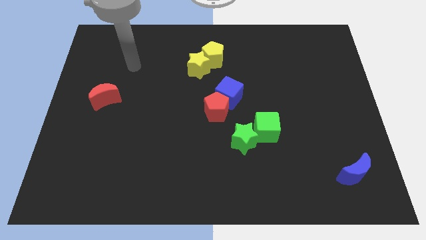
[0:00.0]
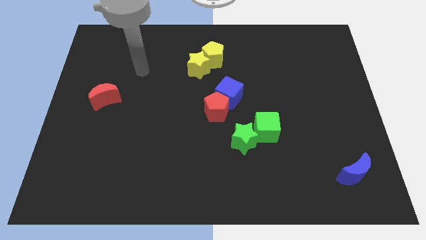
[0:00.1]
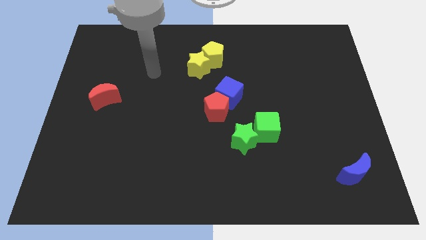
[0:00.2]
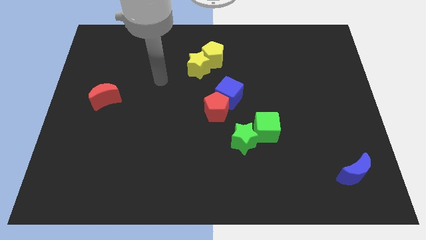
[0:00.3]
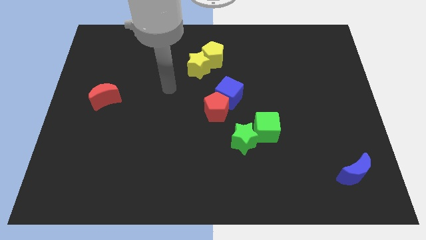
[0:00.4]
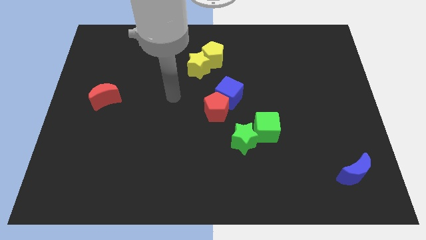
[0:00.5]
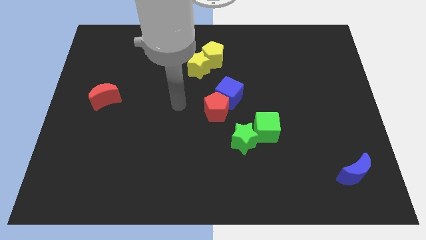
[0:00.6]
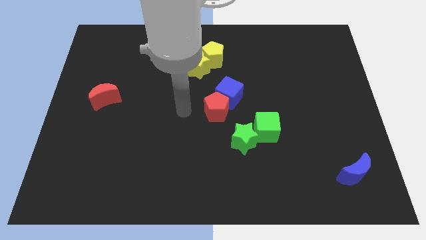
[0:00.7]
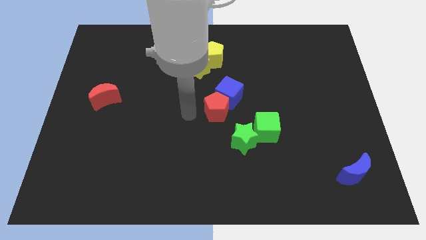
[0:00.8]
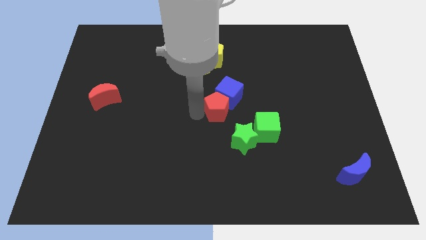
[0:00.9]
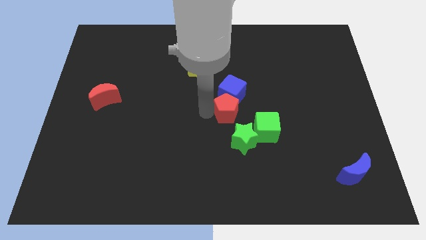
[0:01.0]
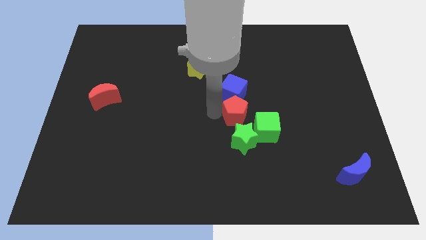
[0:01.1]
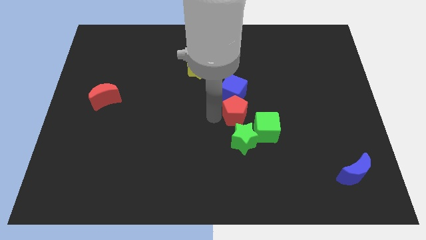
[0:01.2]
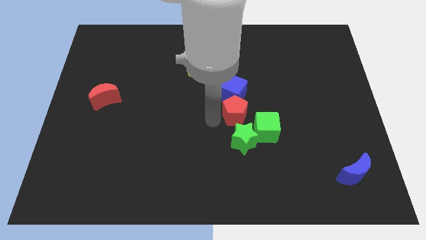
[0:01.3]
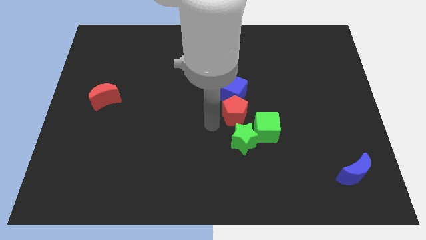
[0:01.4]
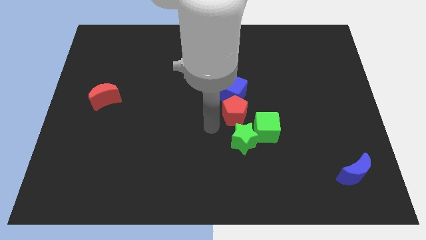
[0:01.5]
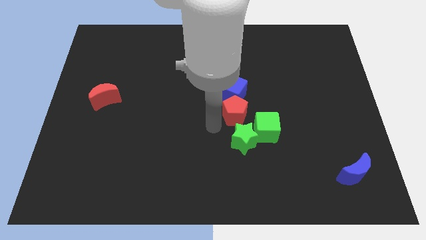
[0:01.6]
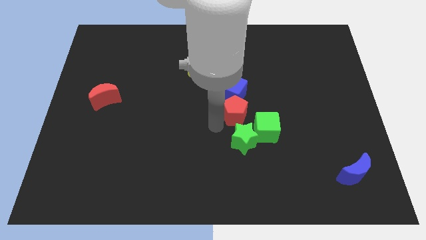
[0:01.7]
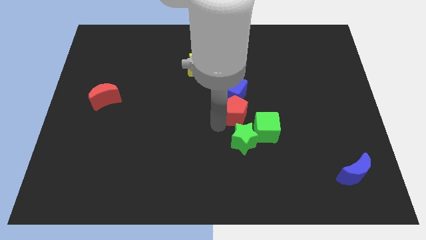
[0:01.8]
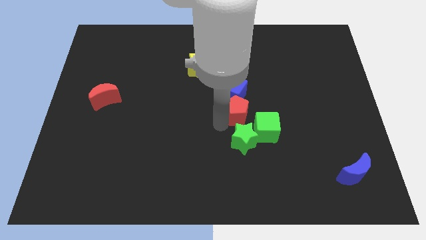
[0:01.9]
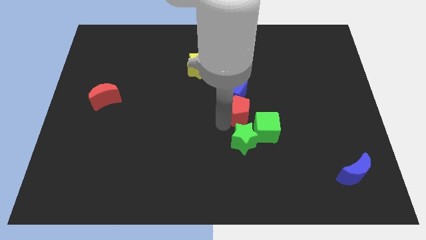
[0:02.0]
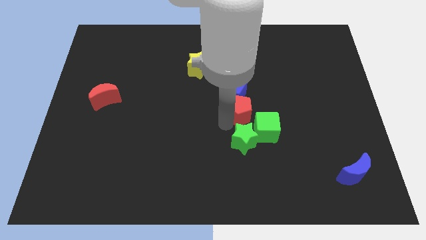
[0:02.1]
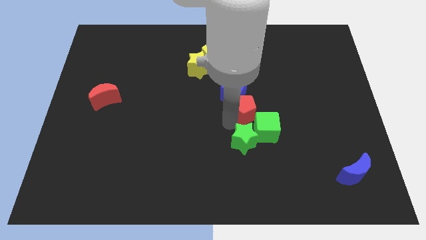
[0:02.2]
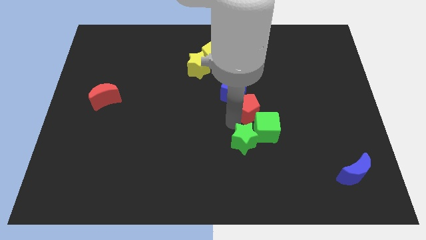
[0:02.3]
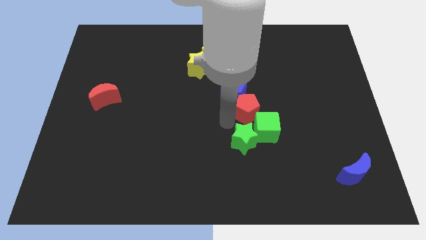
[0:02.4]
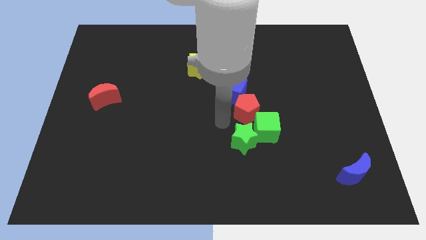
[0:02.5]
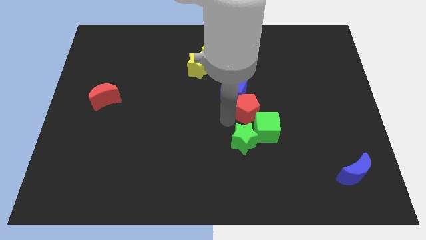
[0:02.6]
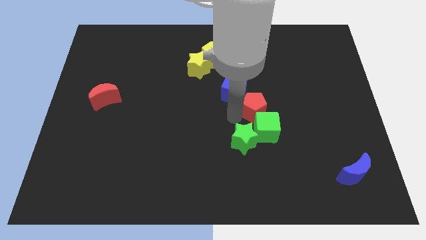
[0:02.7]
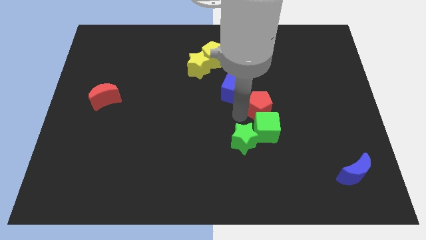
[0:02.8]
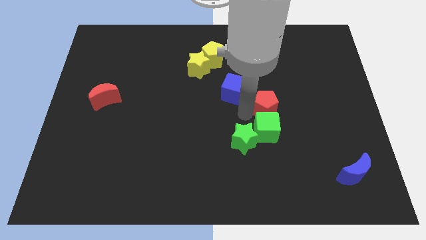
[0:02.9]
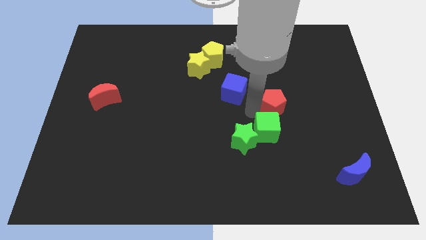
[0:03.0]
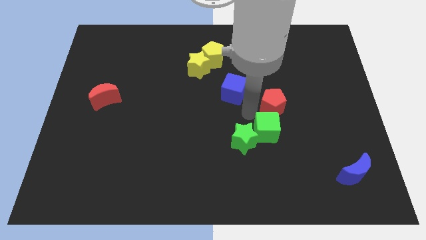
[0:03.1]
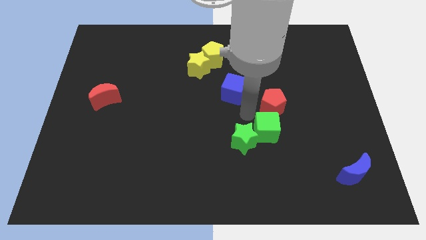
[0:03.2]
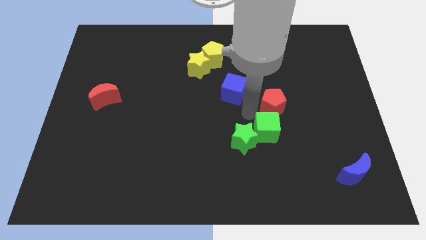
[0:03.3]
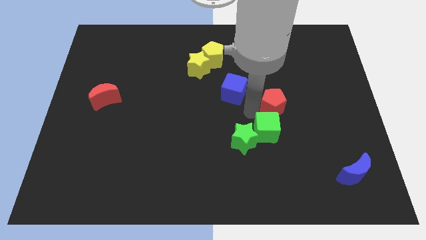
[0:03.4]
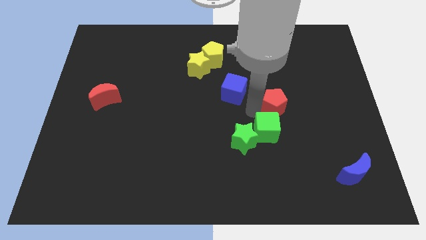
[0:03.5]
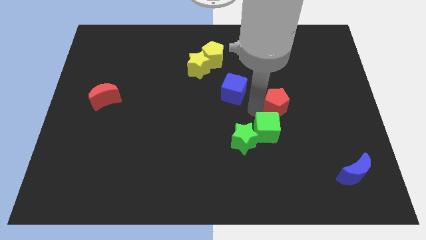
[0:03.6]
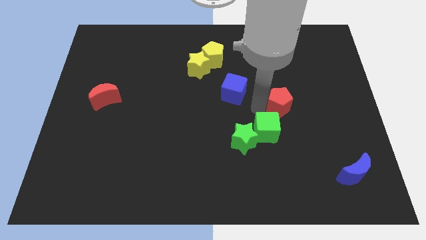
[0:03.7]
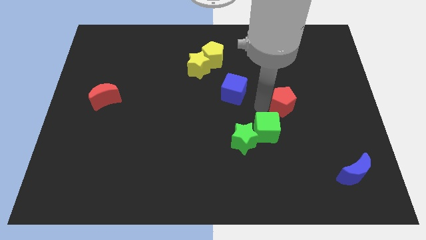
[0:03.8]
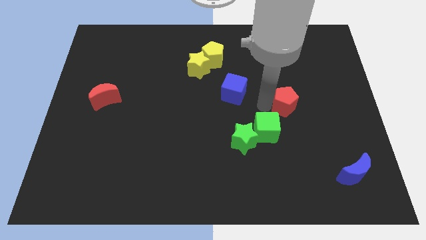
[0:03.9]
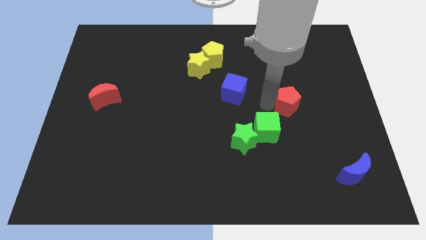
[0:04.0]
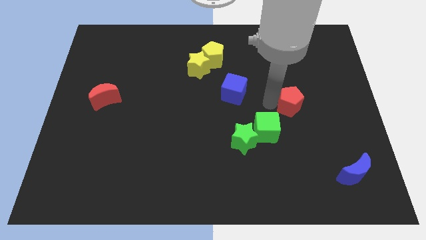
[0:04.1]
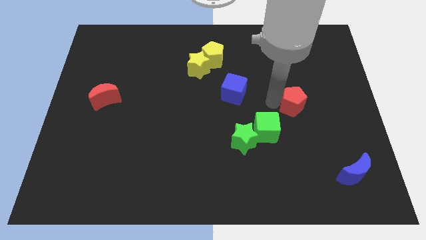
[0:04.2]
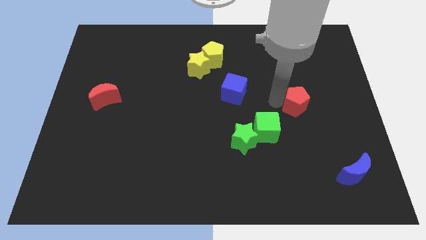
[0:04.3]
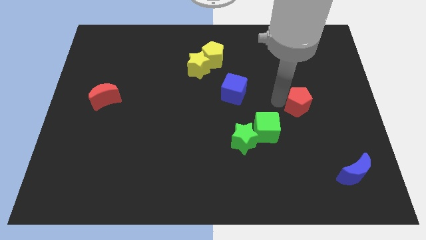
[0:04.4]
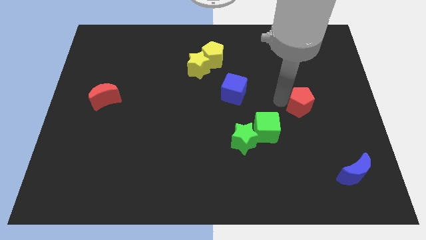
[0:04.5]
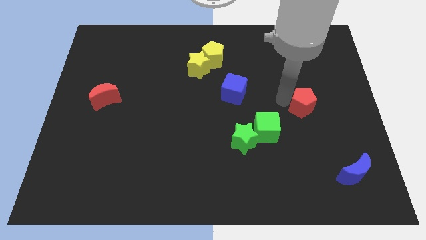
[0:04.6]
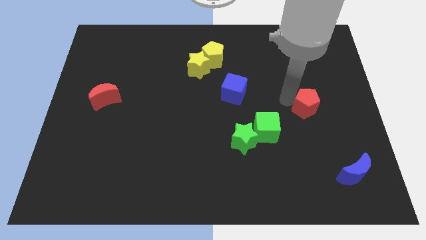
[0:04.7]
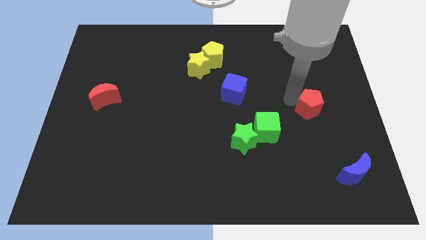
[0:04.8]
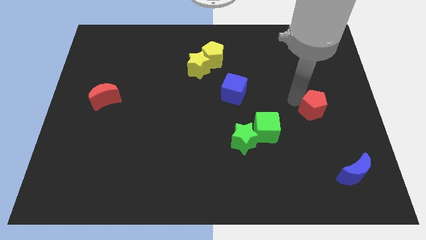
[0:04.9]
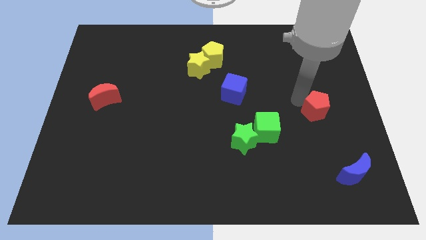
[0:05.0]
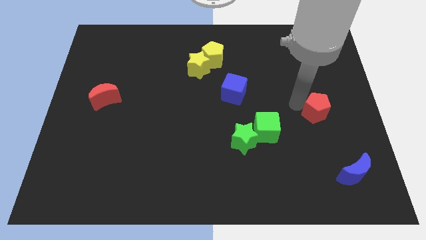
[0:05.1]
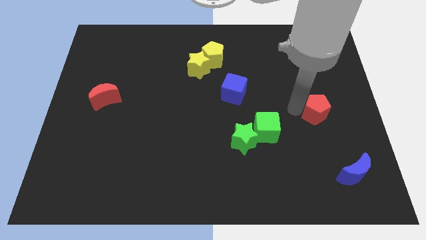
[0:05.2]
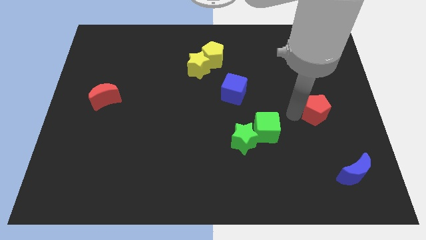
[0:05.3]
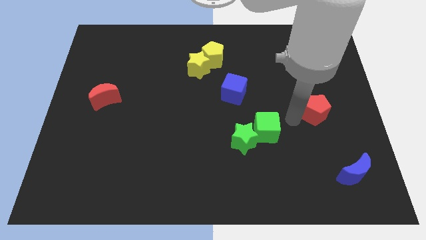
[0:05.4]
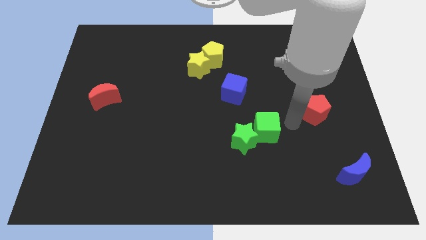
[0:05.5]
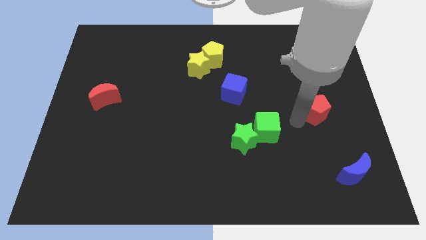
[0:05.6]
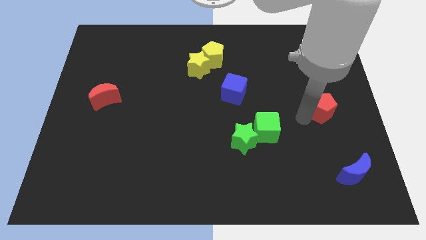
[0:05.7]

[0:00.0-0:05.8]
move the red pentagon to the right side of the board

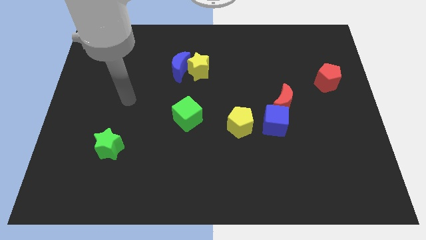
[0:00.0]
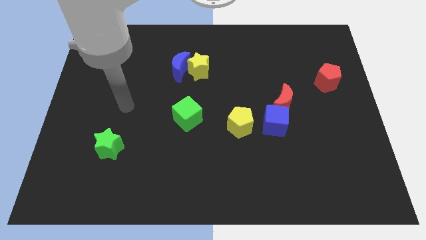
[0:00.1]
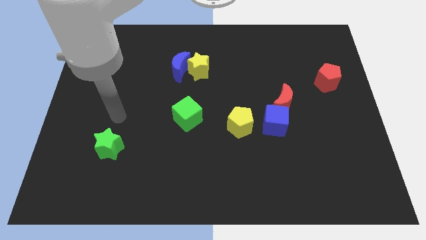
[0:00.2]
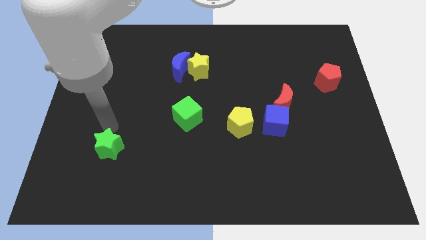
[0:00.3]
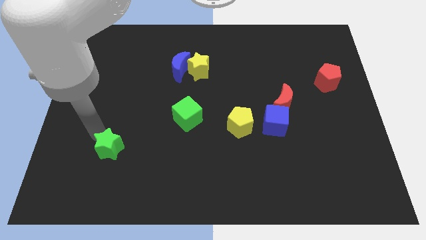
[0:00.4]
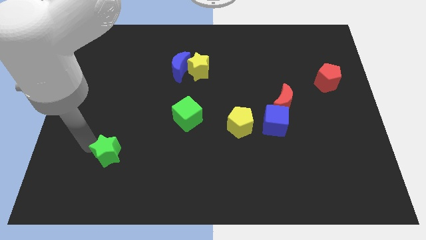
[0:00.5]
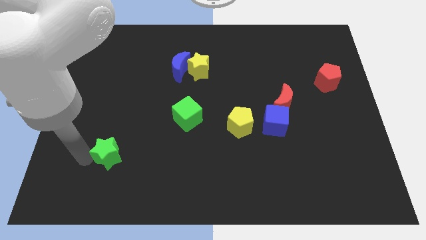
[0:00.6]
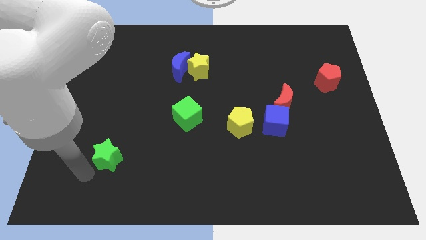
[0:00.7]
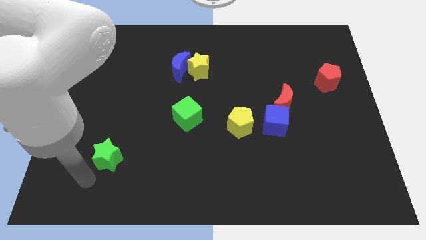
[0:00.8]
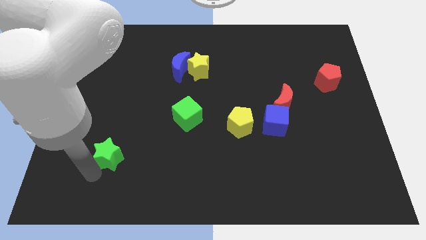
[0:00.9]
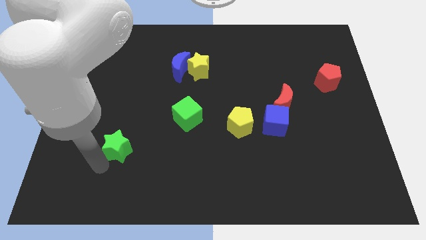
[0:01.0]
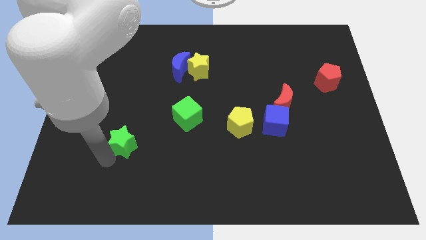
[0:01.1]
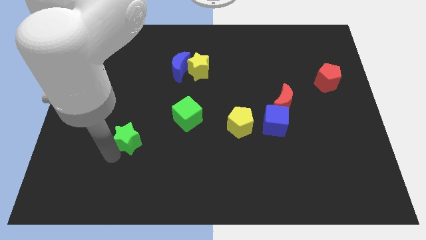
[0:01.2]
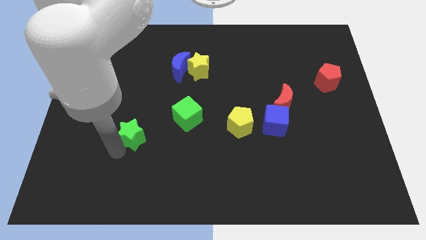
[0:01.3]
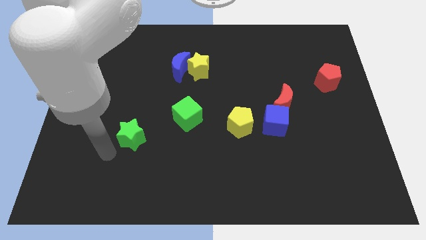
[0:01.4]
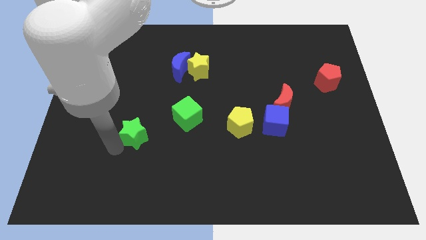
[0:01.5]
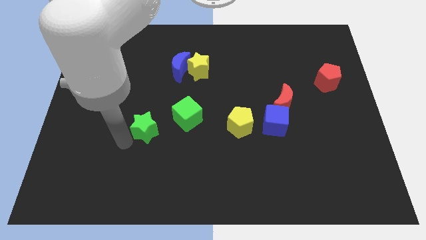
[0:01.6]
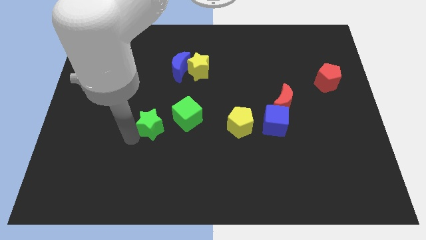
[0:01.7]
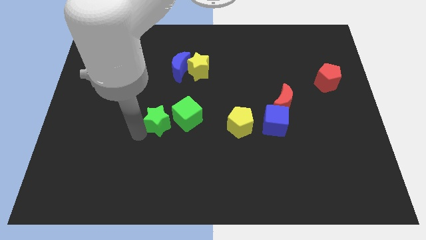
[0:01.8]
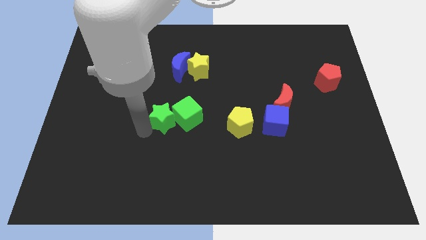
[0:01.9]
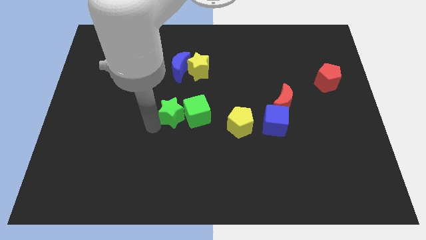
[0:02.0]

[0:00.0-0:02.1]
slide the green star to the center of the board
